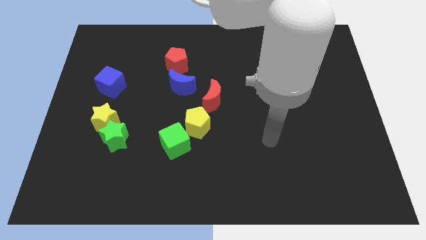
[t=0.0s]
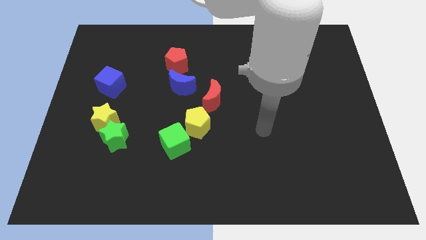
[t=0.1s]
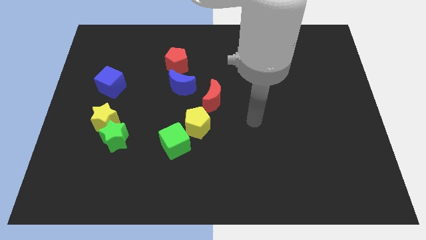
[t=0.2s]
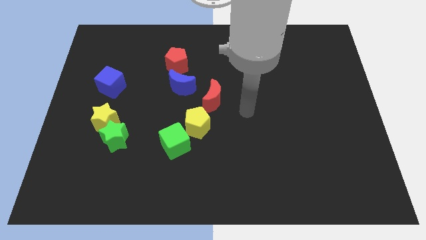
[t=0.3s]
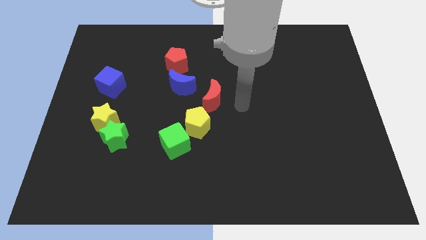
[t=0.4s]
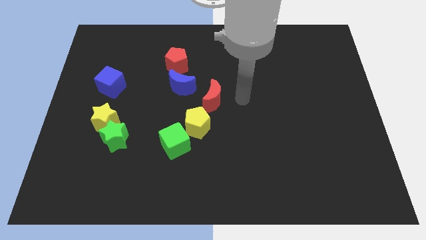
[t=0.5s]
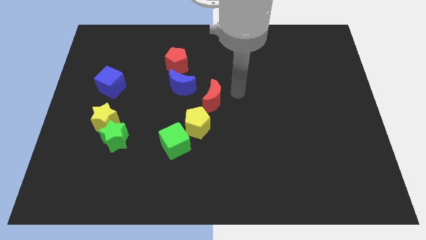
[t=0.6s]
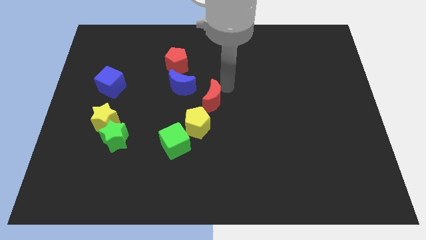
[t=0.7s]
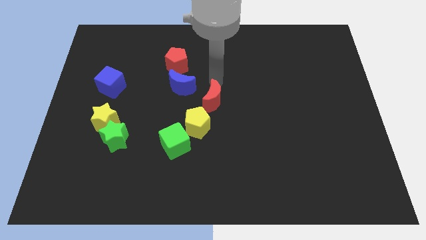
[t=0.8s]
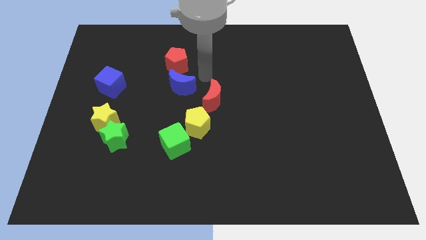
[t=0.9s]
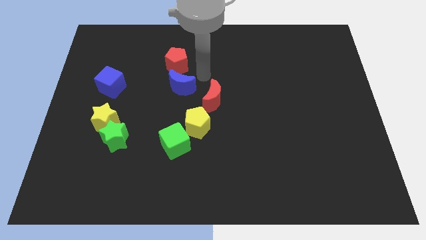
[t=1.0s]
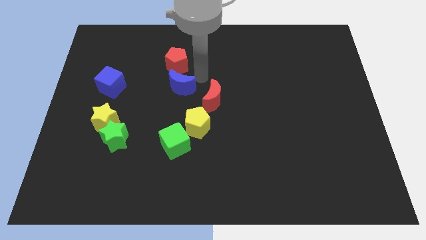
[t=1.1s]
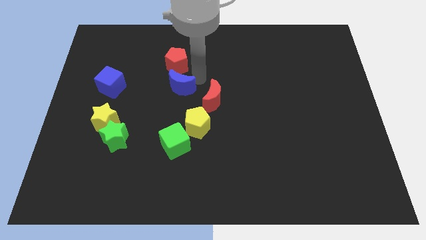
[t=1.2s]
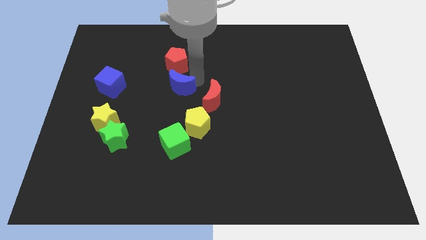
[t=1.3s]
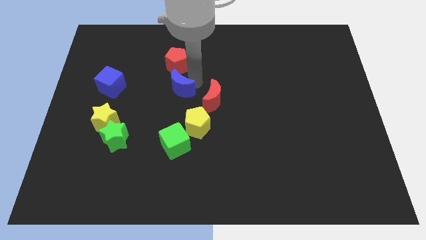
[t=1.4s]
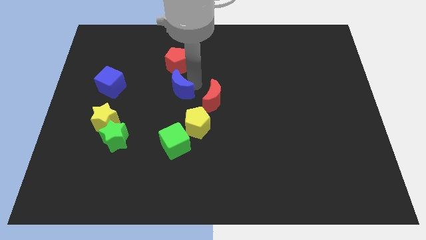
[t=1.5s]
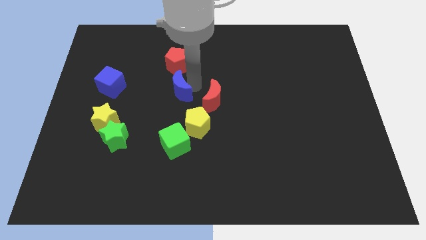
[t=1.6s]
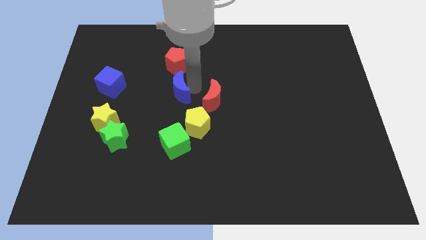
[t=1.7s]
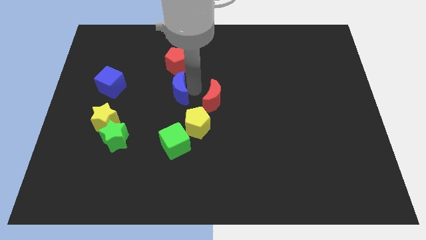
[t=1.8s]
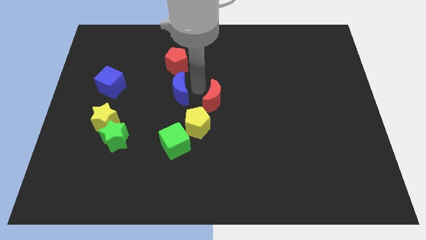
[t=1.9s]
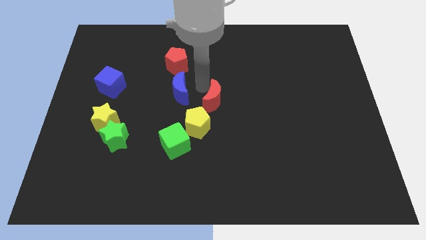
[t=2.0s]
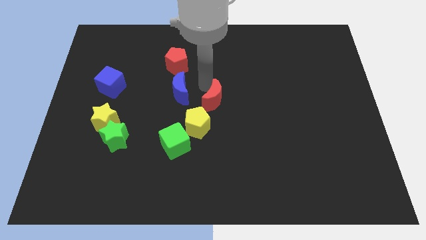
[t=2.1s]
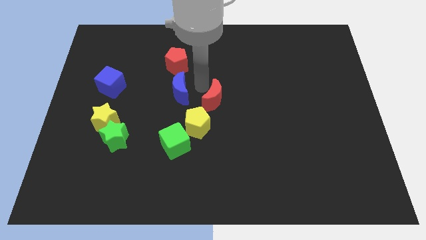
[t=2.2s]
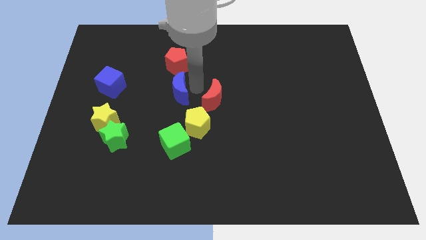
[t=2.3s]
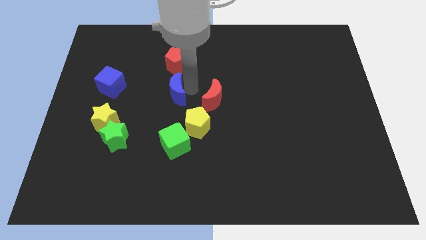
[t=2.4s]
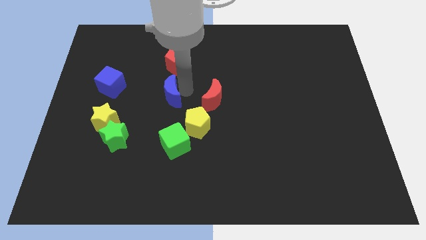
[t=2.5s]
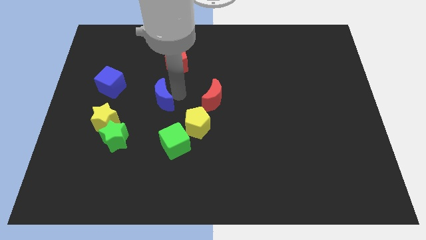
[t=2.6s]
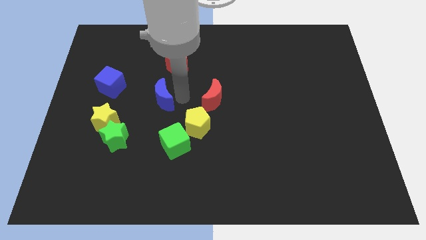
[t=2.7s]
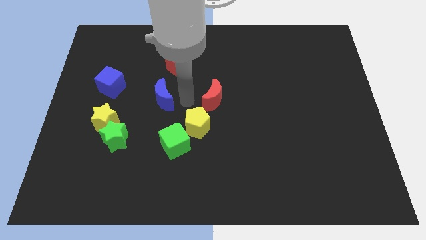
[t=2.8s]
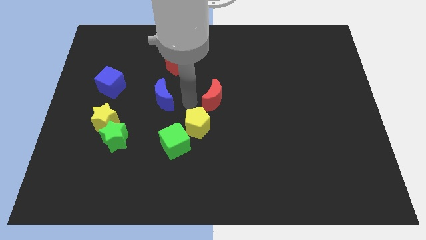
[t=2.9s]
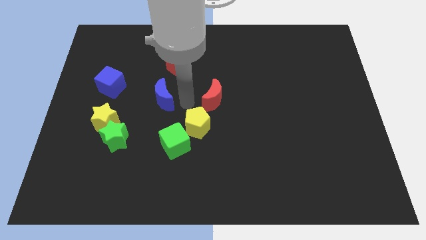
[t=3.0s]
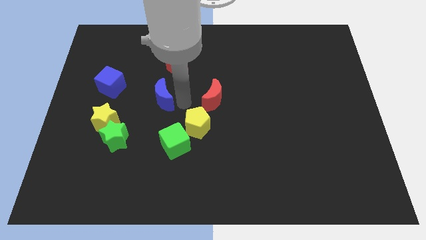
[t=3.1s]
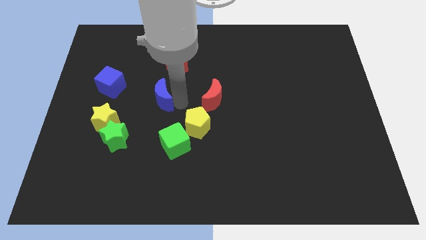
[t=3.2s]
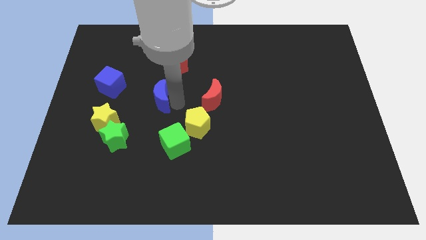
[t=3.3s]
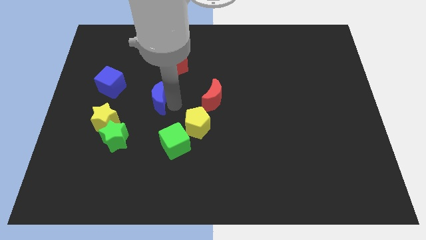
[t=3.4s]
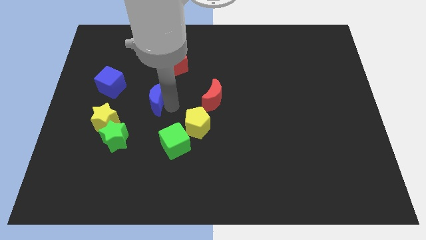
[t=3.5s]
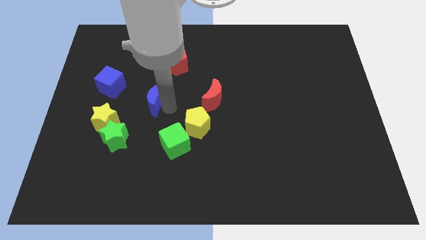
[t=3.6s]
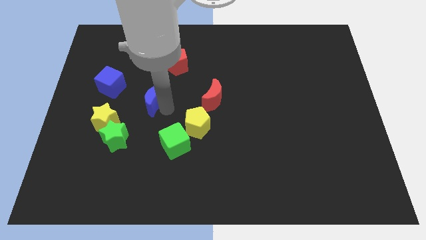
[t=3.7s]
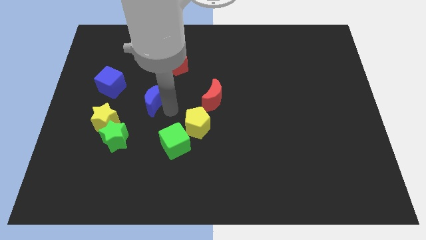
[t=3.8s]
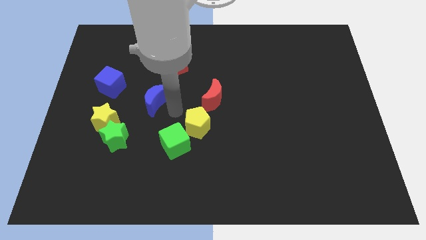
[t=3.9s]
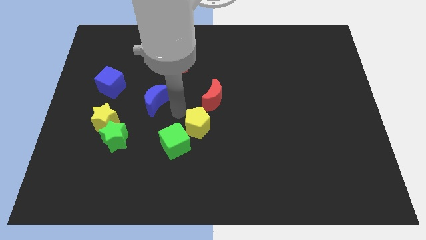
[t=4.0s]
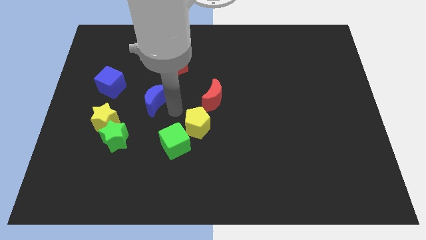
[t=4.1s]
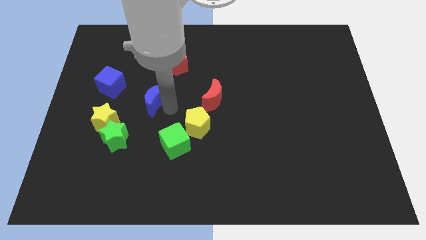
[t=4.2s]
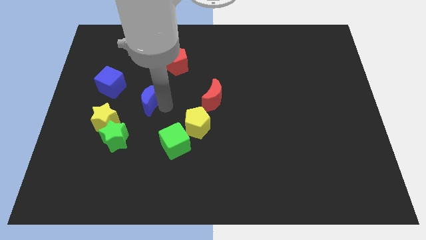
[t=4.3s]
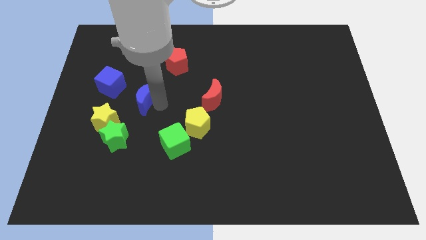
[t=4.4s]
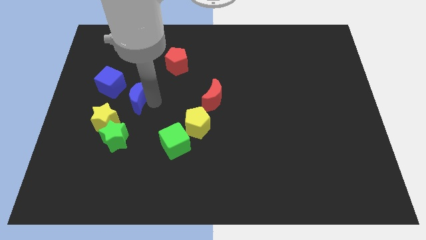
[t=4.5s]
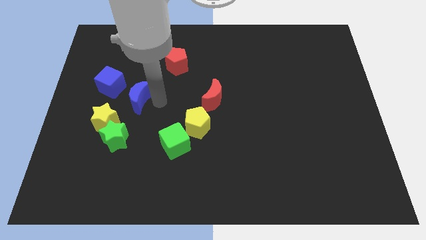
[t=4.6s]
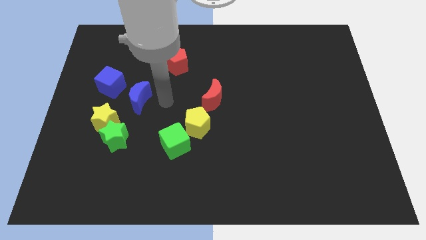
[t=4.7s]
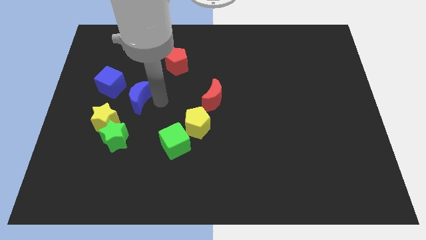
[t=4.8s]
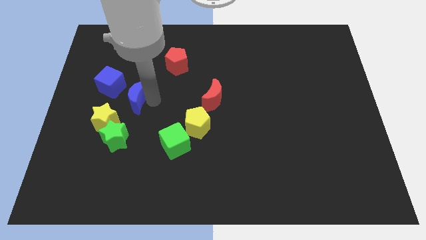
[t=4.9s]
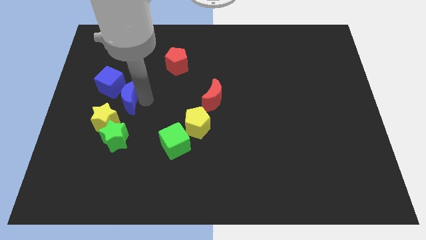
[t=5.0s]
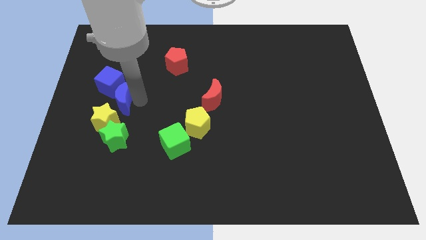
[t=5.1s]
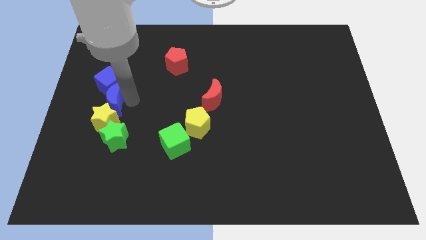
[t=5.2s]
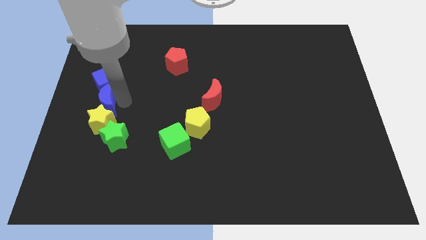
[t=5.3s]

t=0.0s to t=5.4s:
push the blue moon to the top left side of the green star

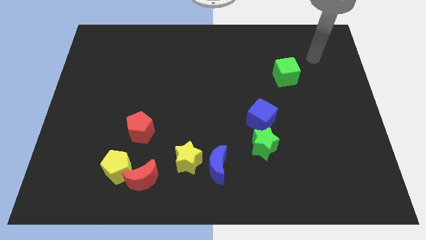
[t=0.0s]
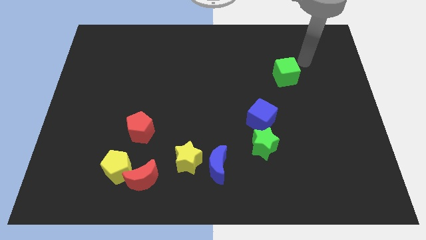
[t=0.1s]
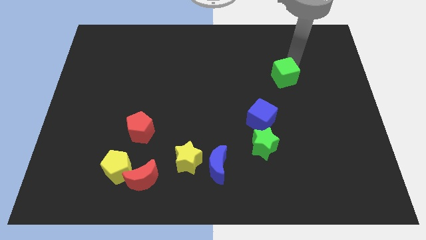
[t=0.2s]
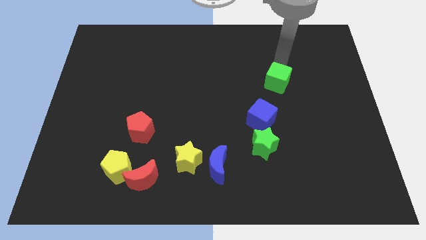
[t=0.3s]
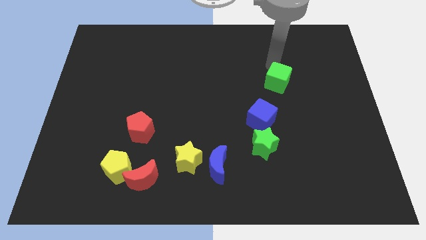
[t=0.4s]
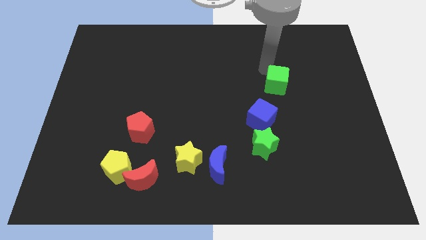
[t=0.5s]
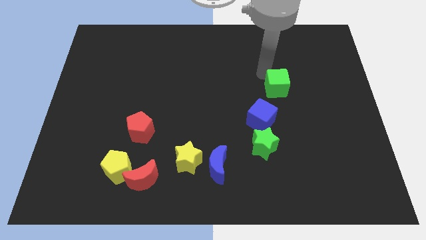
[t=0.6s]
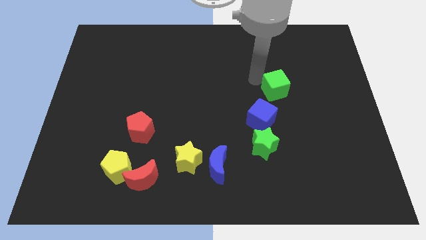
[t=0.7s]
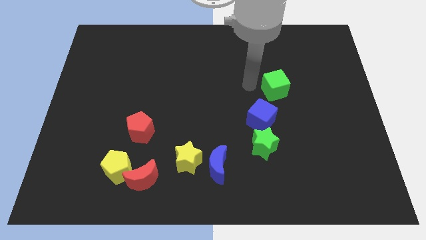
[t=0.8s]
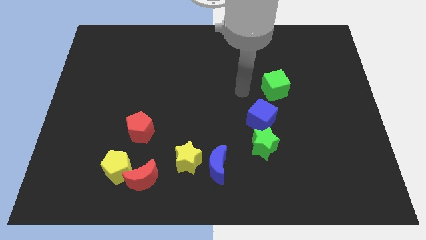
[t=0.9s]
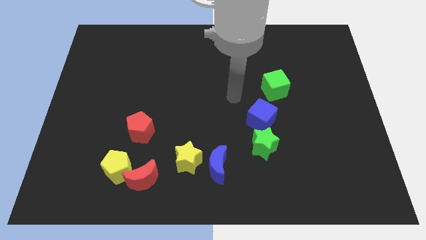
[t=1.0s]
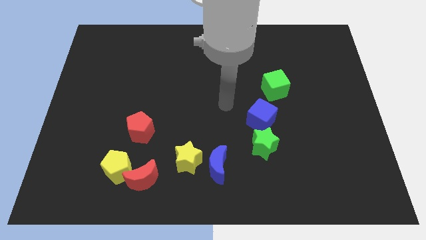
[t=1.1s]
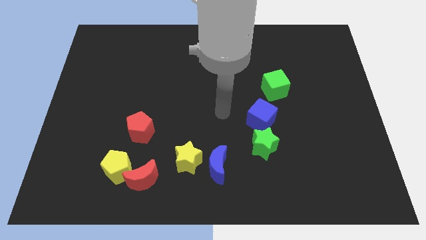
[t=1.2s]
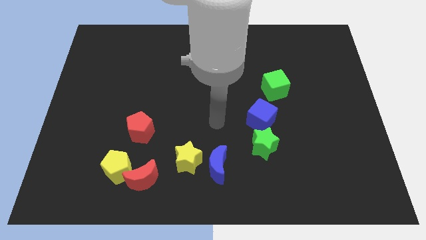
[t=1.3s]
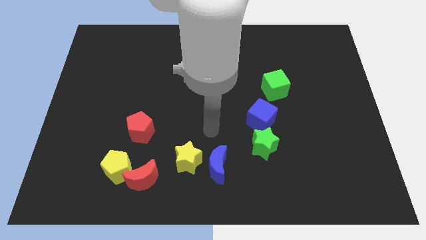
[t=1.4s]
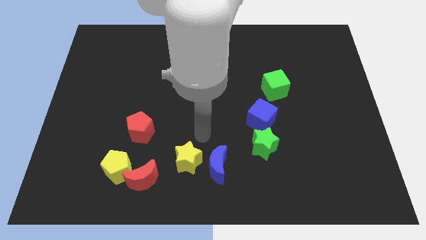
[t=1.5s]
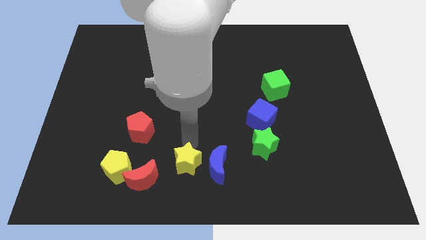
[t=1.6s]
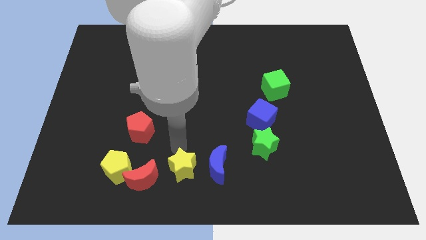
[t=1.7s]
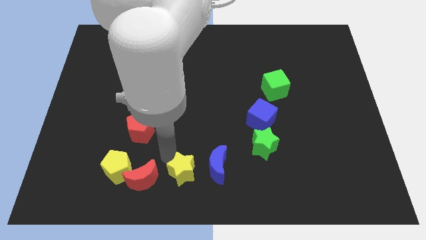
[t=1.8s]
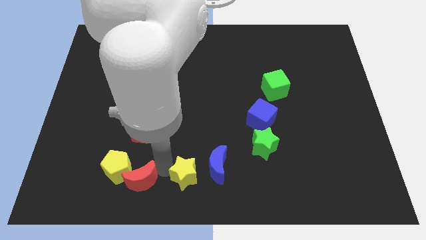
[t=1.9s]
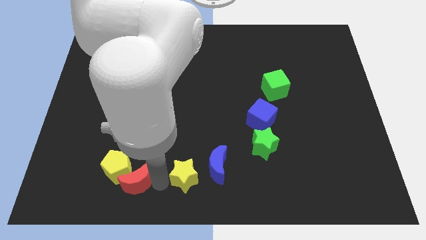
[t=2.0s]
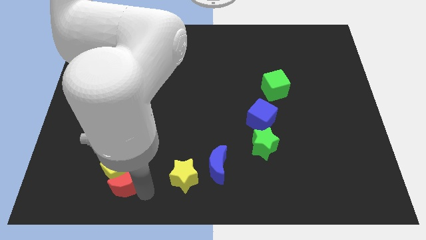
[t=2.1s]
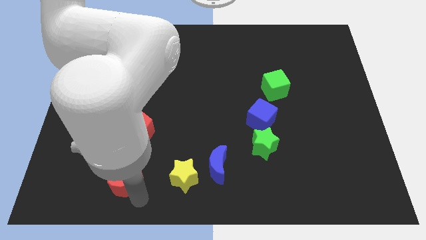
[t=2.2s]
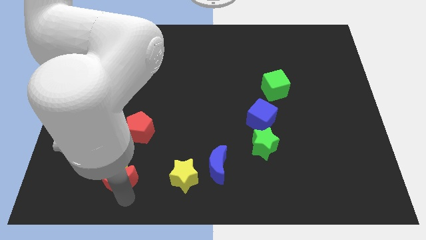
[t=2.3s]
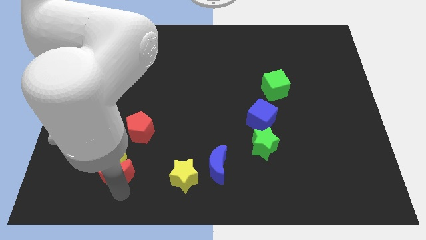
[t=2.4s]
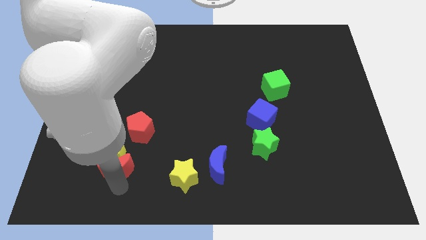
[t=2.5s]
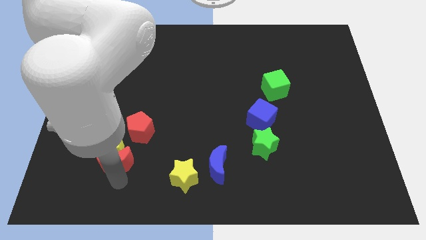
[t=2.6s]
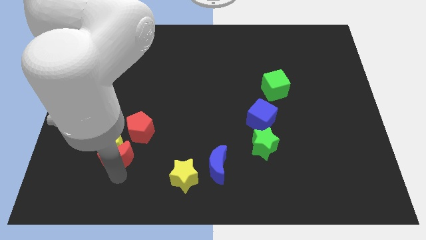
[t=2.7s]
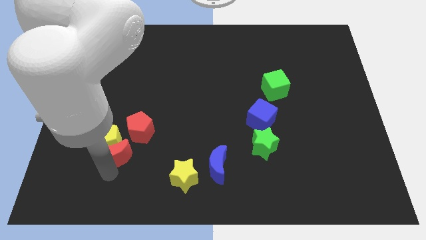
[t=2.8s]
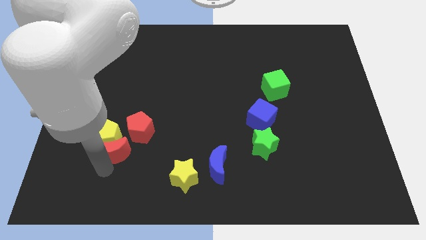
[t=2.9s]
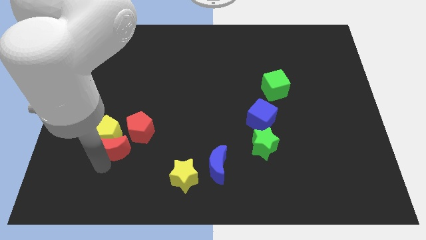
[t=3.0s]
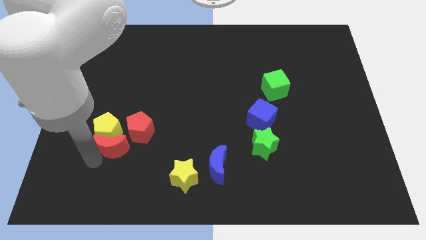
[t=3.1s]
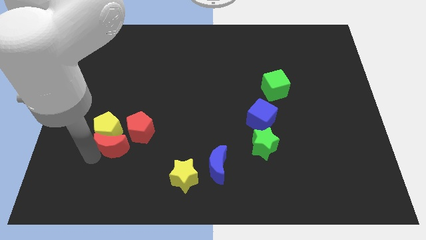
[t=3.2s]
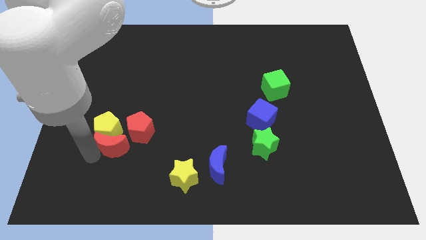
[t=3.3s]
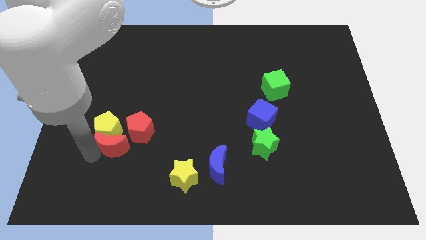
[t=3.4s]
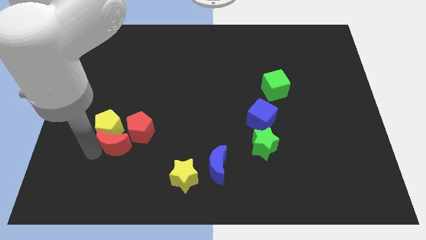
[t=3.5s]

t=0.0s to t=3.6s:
put the yellow pentagon diagonally up and to the left of the red pentagon
